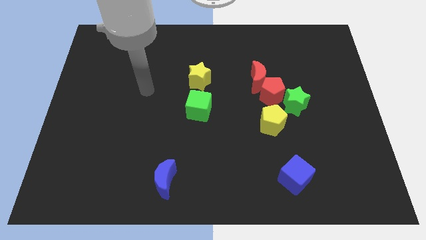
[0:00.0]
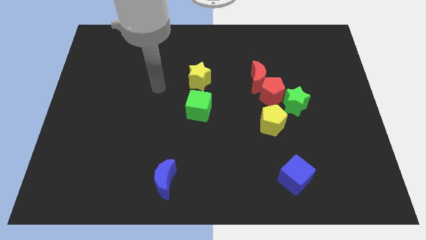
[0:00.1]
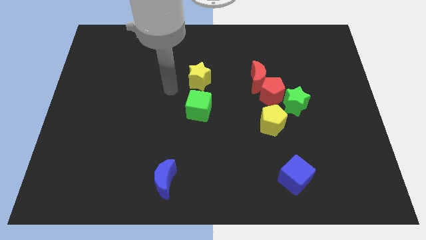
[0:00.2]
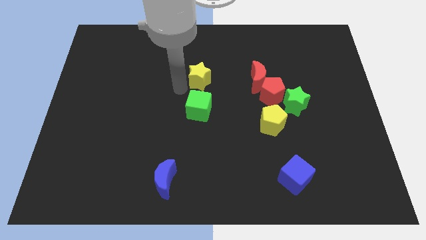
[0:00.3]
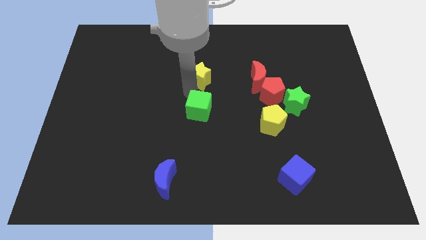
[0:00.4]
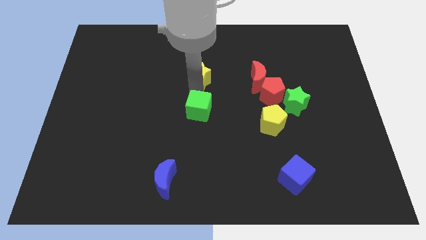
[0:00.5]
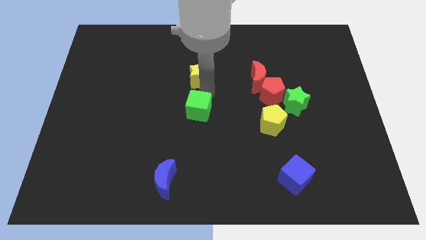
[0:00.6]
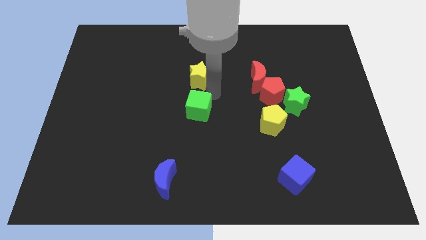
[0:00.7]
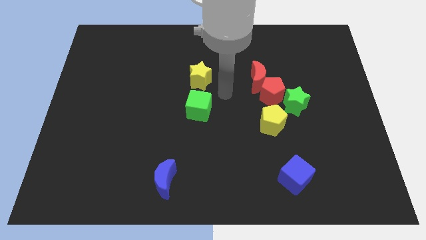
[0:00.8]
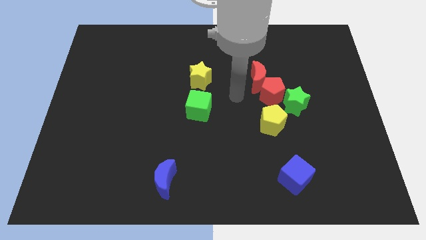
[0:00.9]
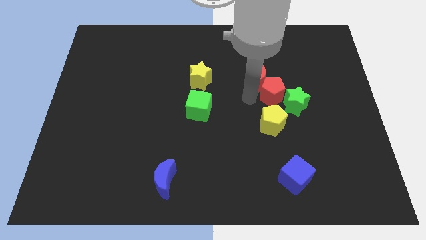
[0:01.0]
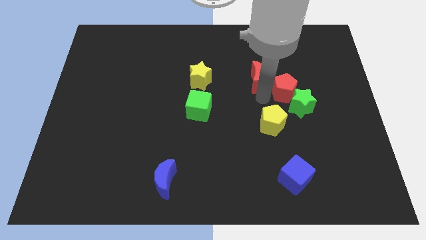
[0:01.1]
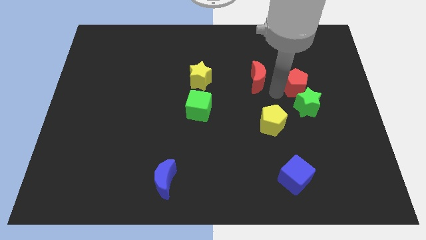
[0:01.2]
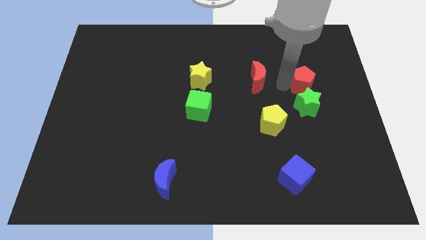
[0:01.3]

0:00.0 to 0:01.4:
move the red moon away from the red pentagon

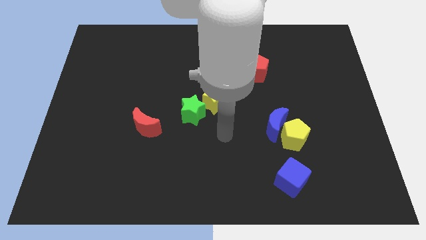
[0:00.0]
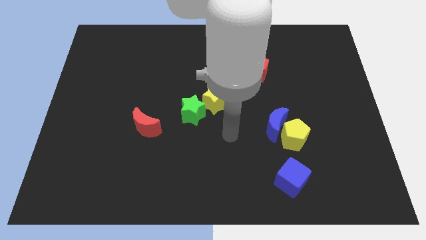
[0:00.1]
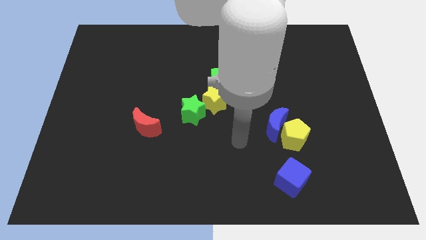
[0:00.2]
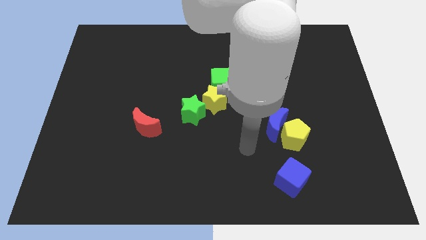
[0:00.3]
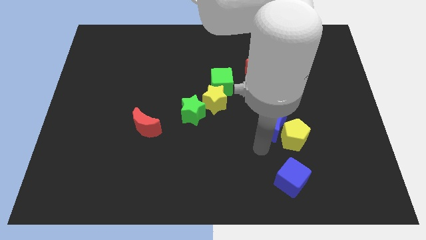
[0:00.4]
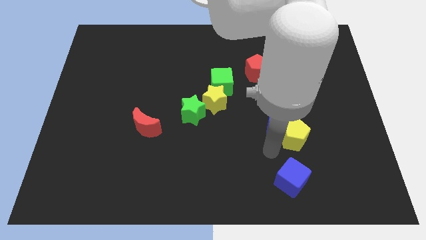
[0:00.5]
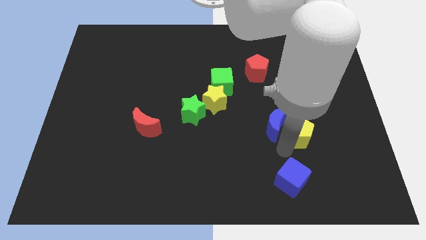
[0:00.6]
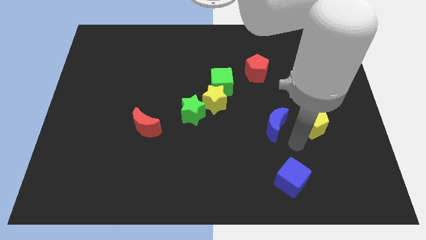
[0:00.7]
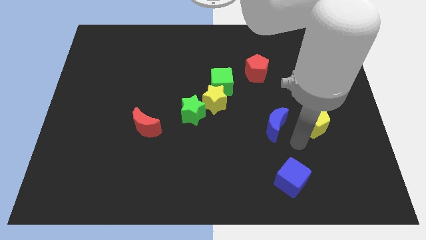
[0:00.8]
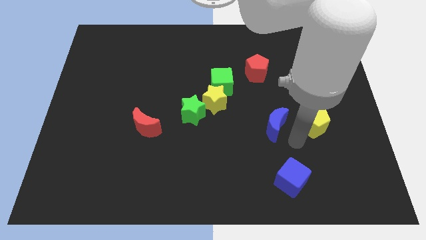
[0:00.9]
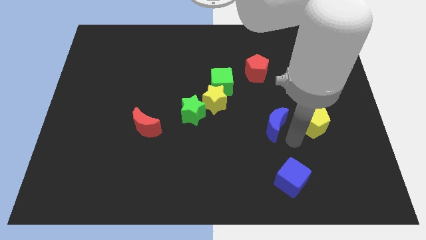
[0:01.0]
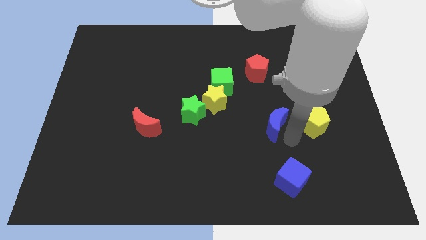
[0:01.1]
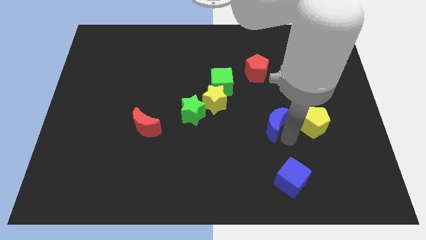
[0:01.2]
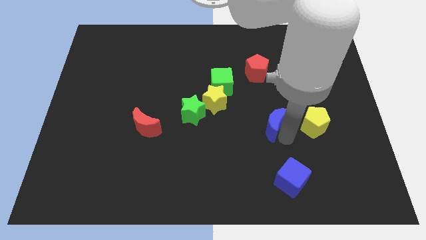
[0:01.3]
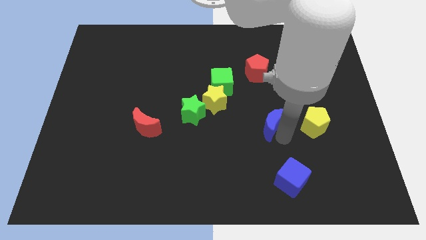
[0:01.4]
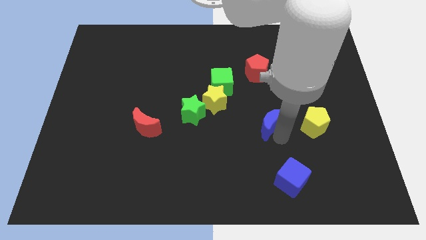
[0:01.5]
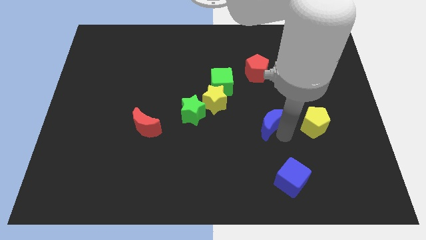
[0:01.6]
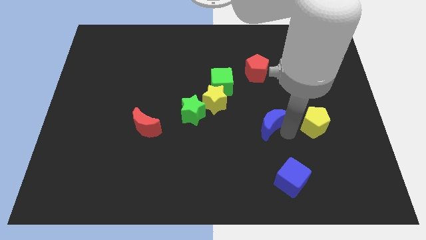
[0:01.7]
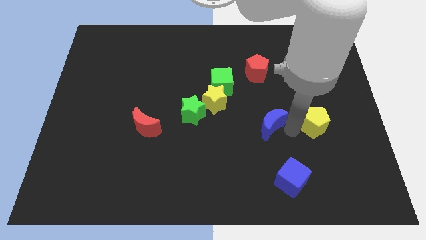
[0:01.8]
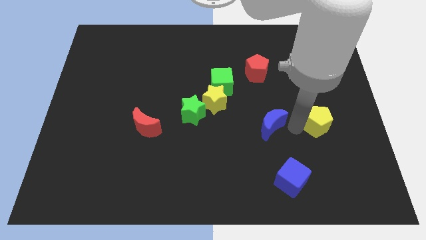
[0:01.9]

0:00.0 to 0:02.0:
pull the blue moon apart from the yellow pentagon

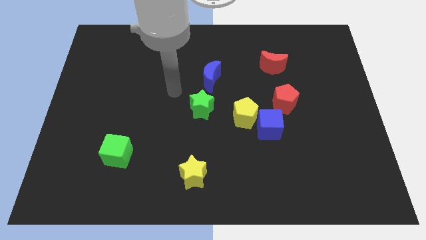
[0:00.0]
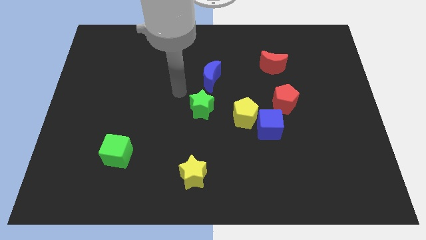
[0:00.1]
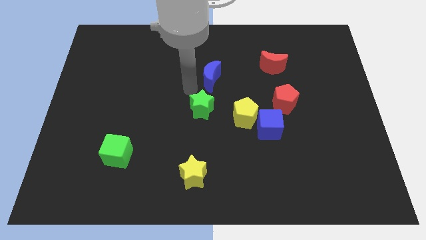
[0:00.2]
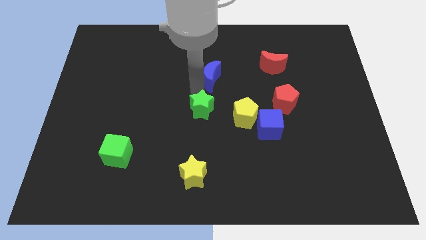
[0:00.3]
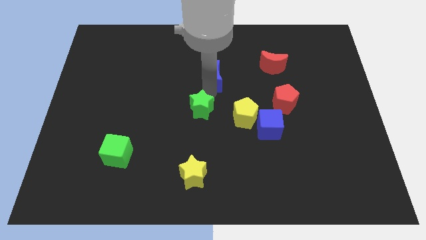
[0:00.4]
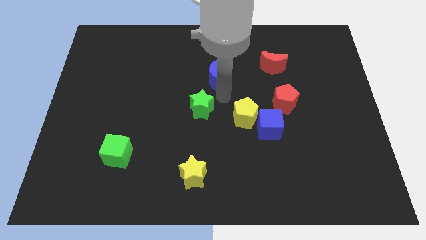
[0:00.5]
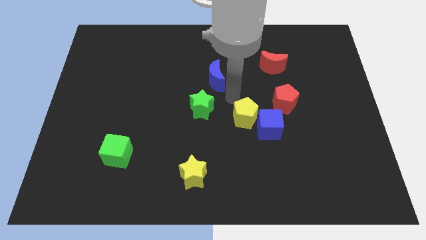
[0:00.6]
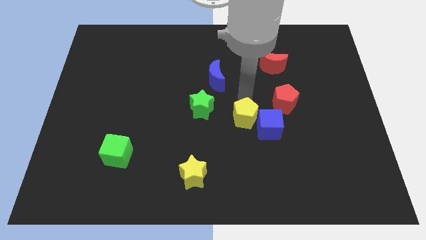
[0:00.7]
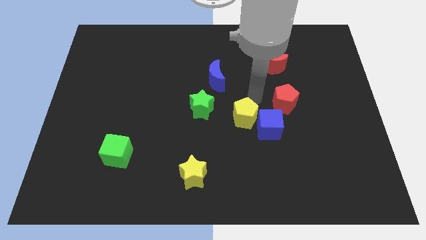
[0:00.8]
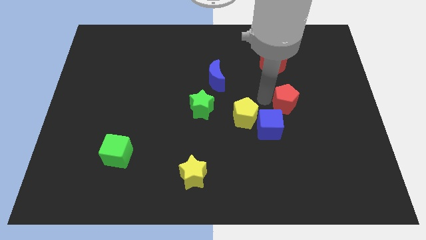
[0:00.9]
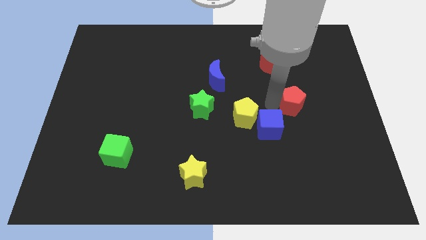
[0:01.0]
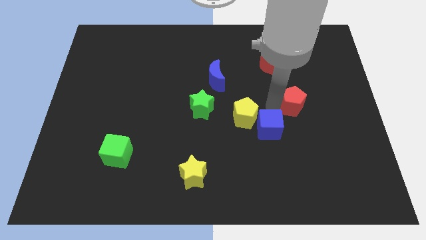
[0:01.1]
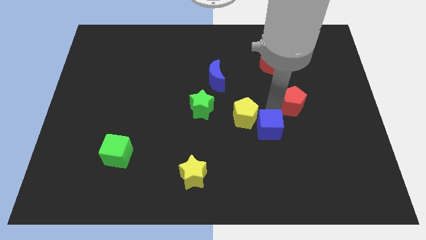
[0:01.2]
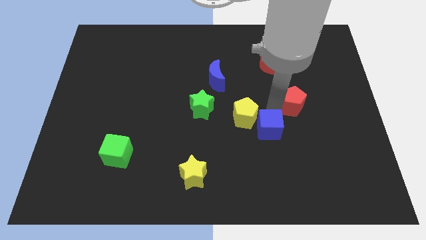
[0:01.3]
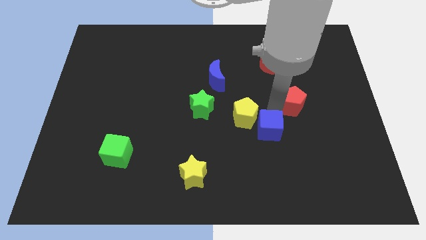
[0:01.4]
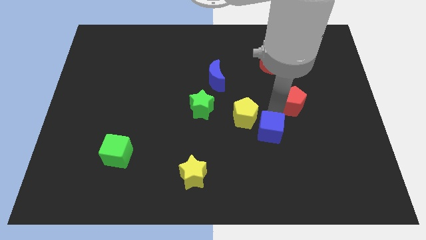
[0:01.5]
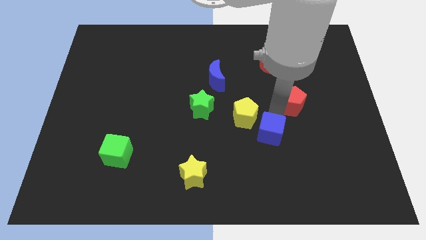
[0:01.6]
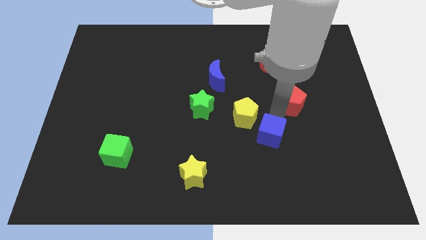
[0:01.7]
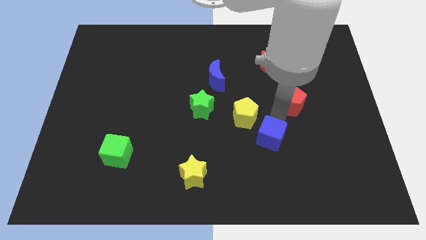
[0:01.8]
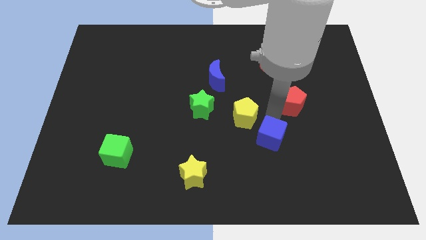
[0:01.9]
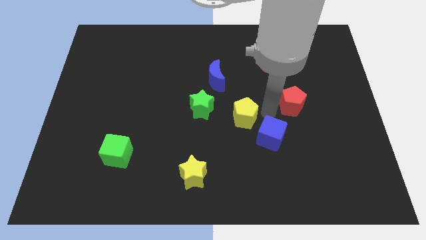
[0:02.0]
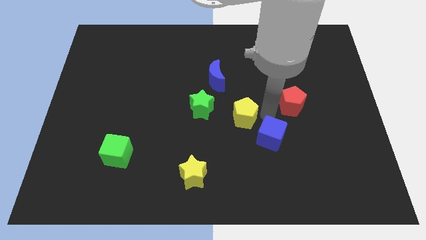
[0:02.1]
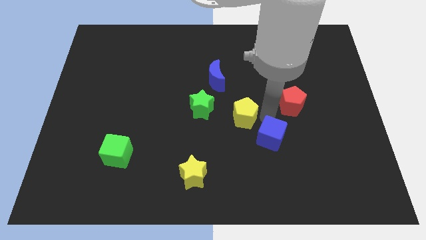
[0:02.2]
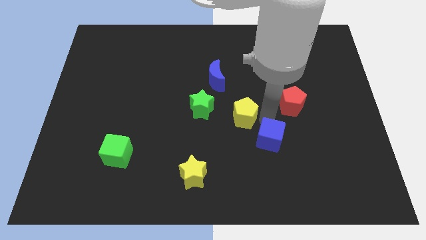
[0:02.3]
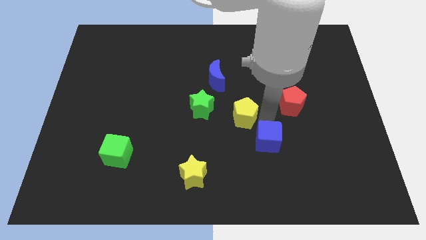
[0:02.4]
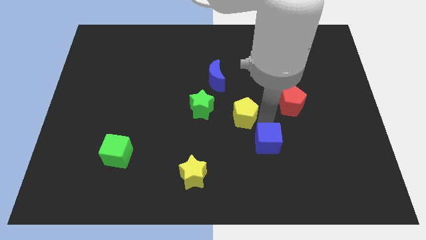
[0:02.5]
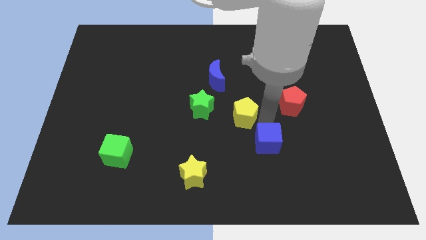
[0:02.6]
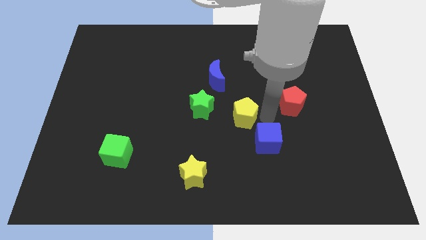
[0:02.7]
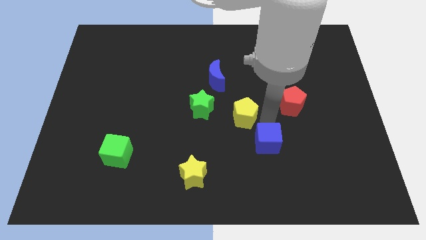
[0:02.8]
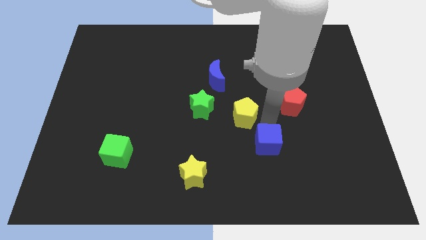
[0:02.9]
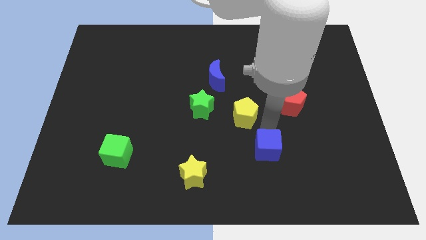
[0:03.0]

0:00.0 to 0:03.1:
pull the blue cube apart from the yellow pentagon and red pentagon

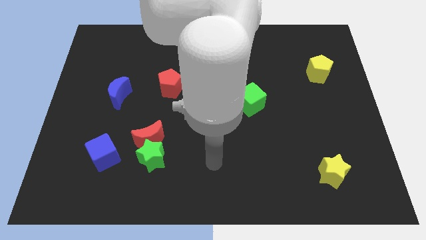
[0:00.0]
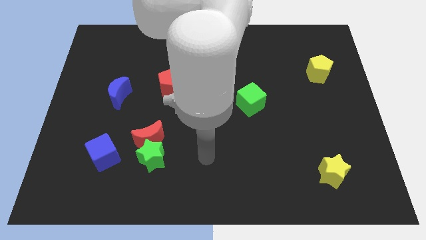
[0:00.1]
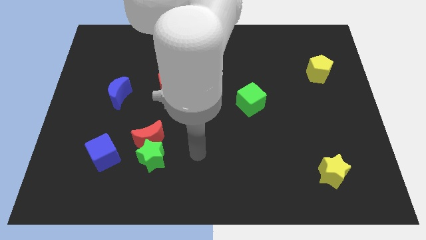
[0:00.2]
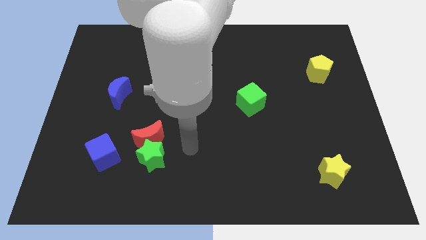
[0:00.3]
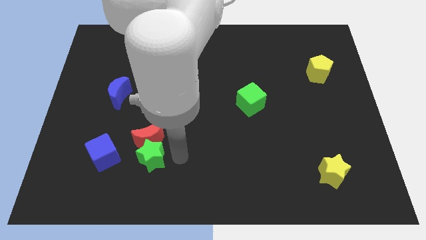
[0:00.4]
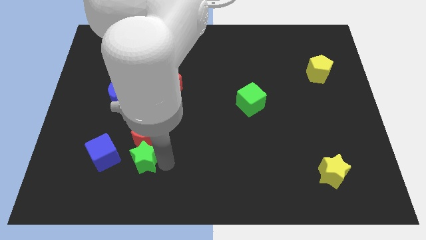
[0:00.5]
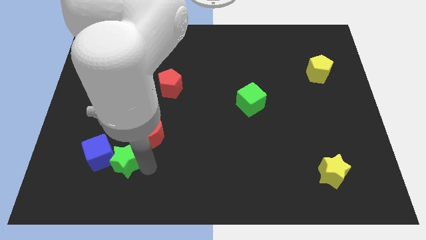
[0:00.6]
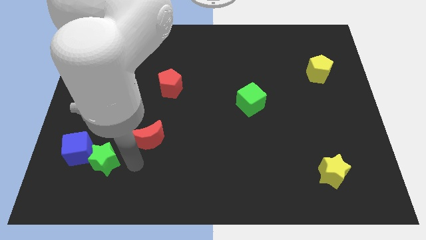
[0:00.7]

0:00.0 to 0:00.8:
move the red moon away from the green star and blue cube

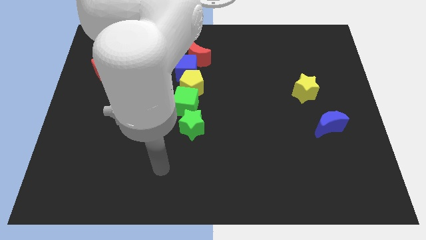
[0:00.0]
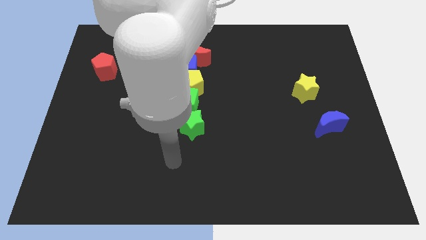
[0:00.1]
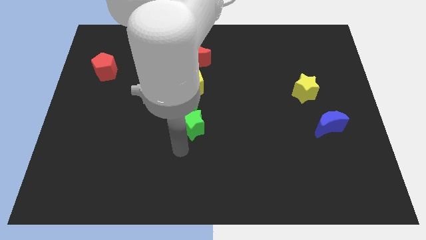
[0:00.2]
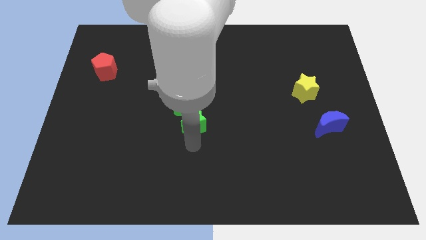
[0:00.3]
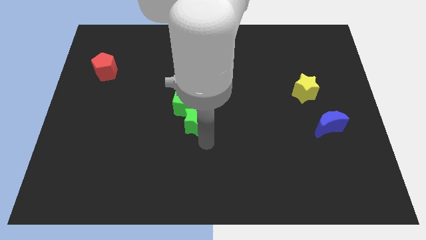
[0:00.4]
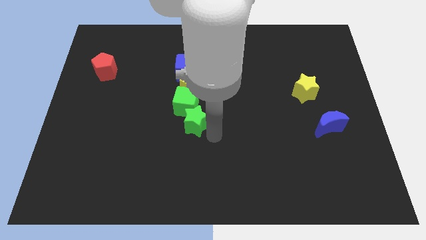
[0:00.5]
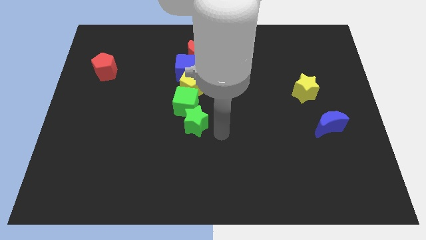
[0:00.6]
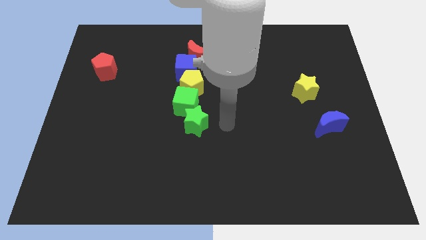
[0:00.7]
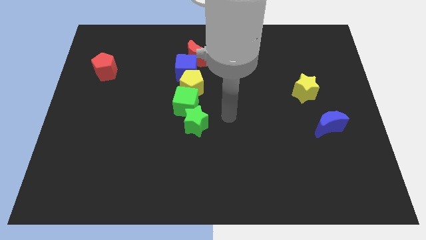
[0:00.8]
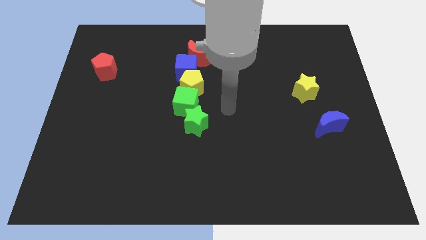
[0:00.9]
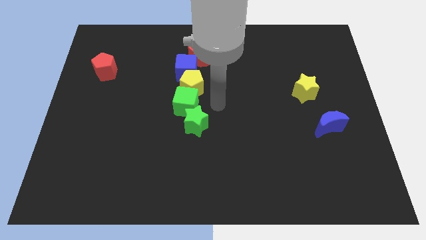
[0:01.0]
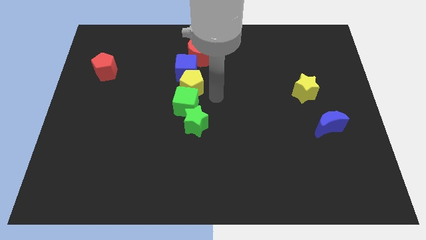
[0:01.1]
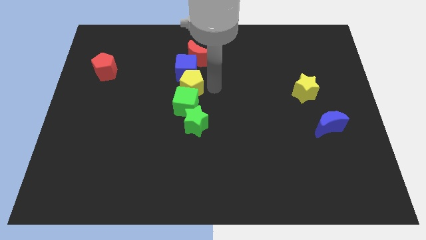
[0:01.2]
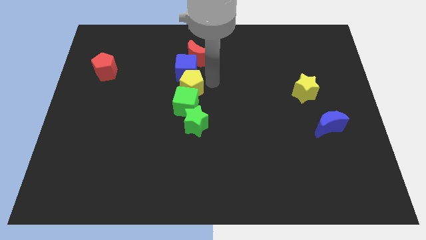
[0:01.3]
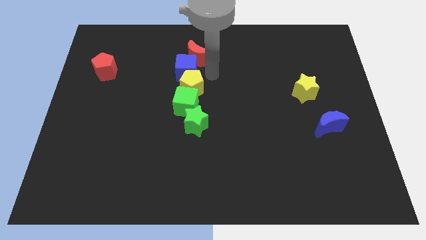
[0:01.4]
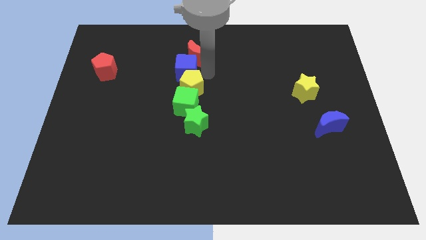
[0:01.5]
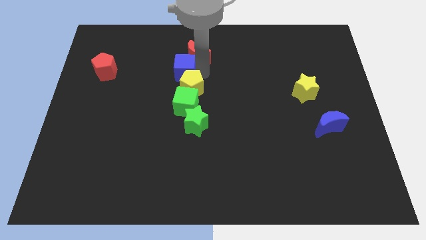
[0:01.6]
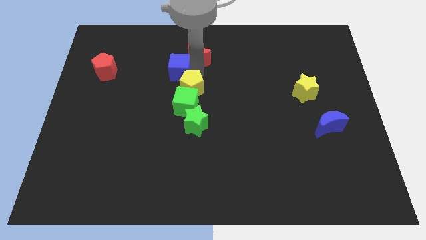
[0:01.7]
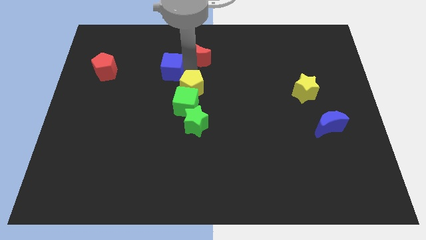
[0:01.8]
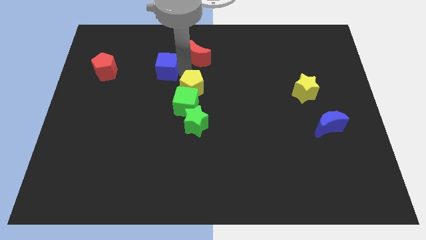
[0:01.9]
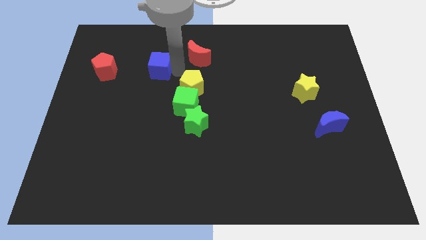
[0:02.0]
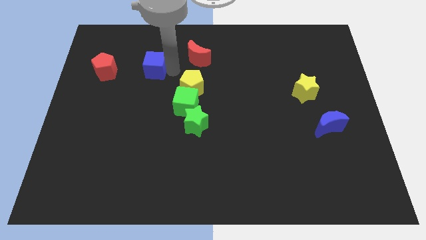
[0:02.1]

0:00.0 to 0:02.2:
pull the blue cube apart from the red moon and yellow pentagon
